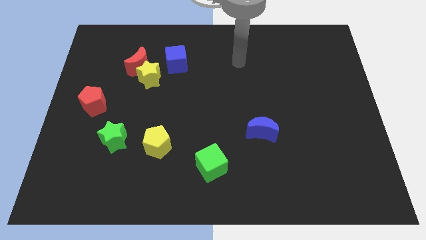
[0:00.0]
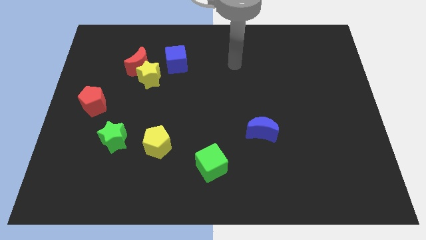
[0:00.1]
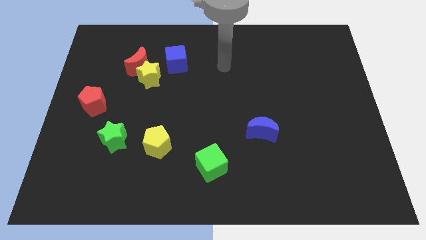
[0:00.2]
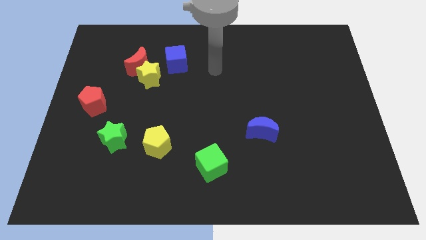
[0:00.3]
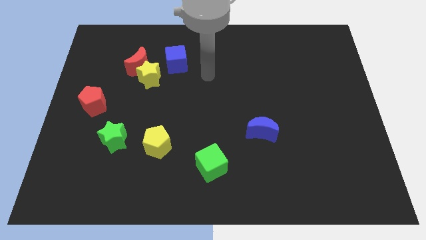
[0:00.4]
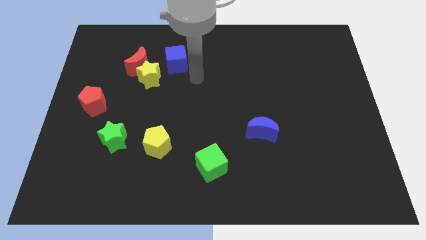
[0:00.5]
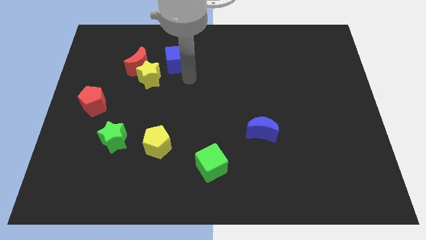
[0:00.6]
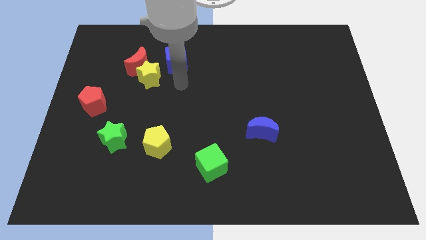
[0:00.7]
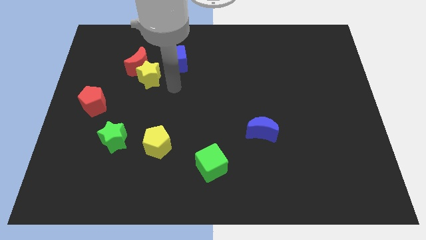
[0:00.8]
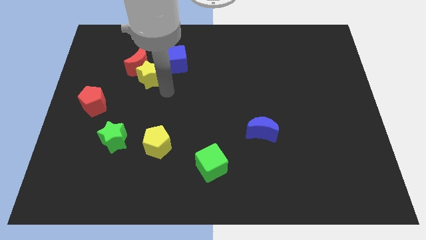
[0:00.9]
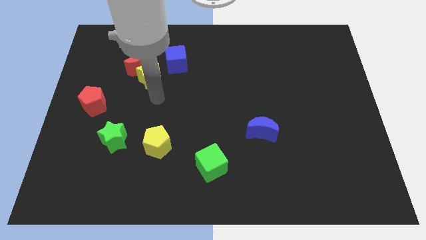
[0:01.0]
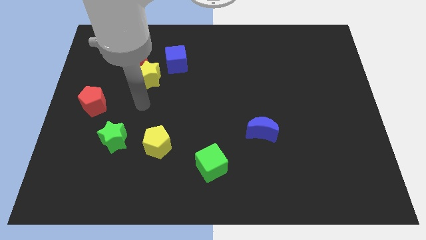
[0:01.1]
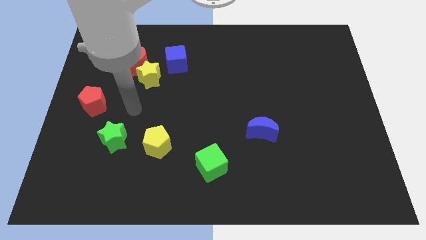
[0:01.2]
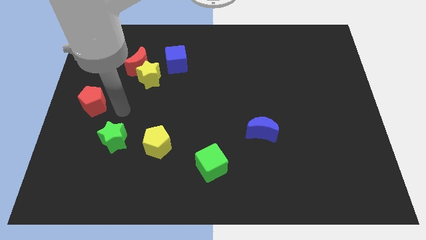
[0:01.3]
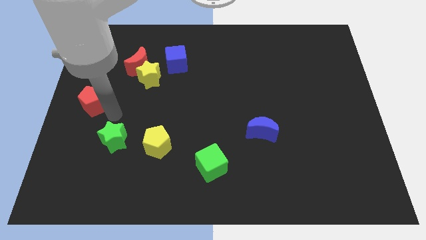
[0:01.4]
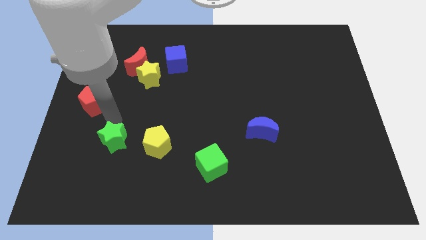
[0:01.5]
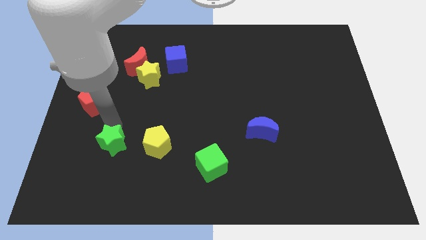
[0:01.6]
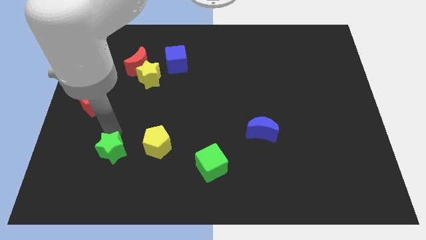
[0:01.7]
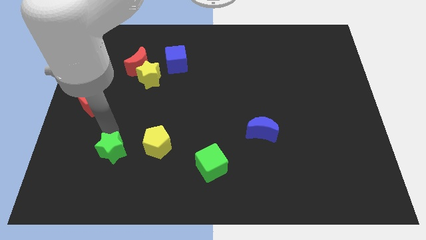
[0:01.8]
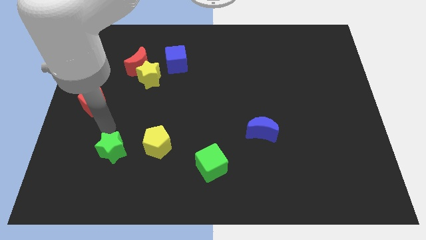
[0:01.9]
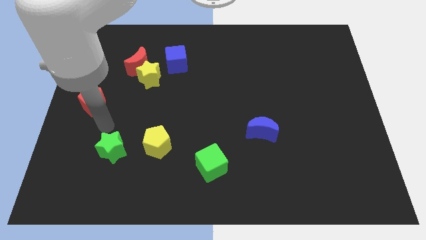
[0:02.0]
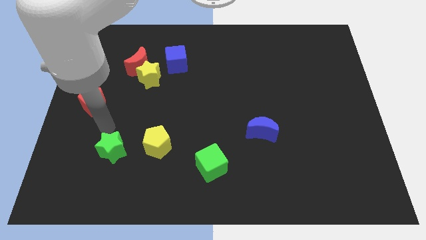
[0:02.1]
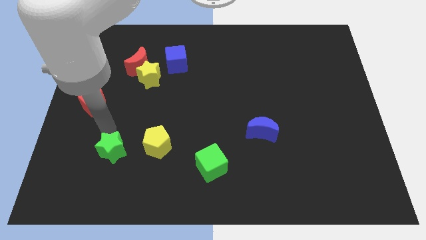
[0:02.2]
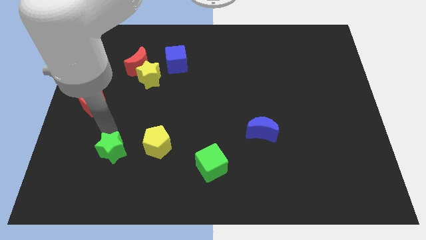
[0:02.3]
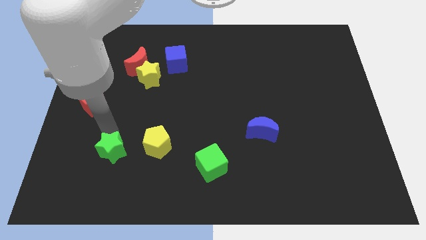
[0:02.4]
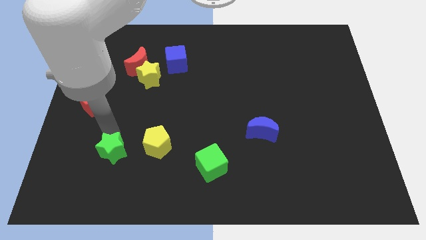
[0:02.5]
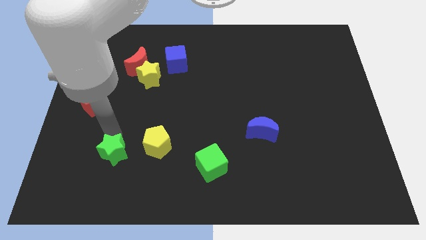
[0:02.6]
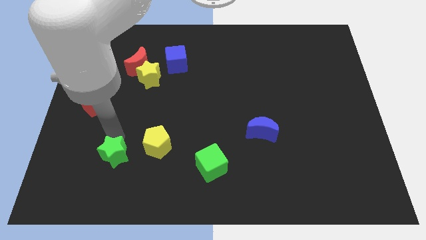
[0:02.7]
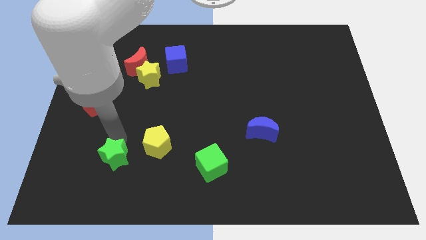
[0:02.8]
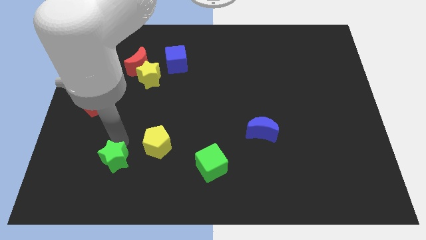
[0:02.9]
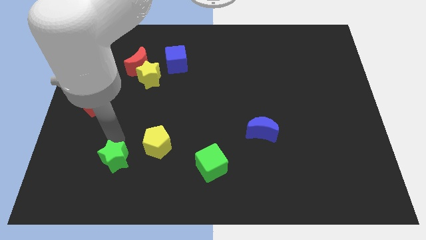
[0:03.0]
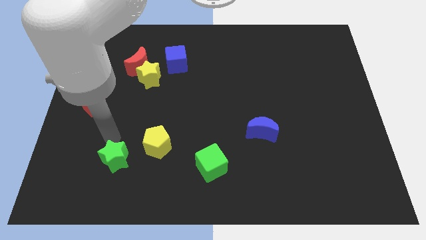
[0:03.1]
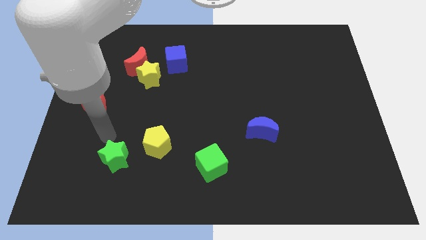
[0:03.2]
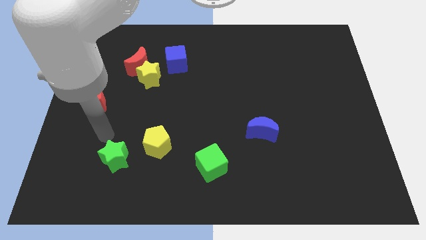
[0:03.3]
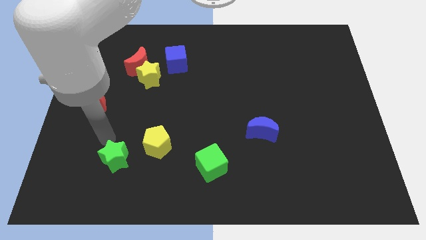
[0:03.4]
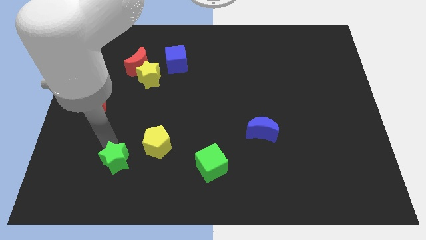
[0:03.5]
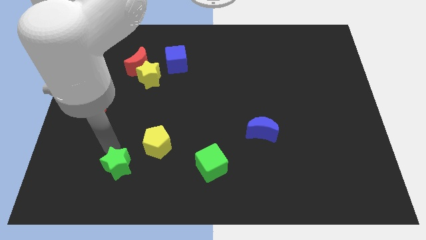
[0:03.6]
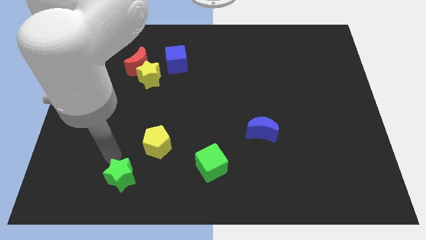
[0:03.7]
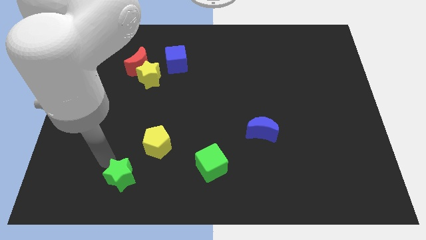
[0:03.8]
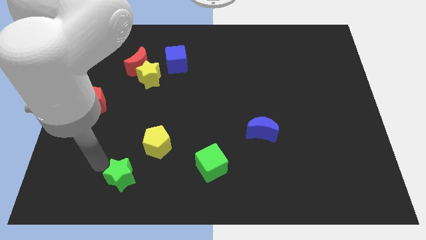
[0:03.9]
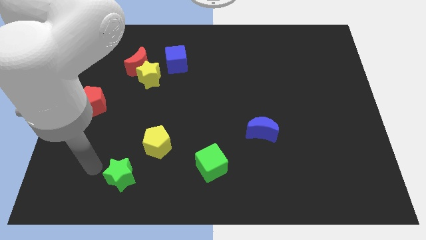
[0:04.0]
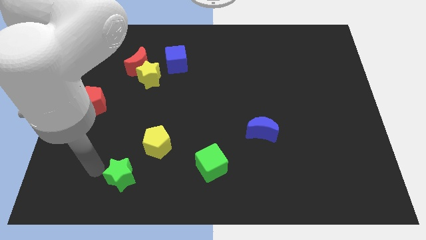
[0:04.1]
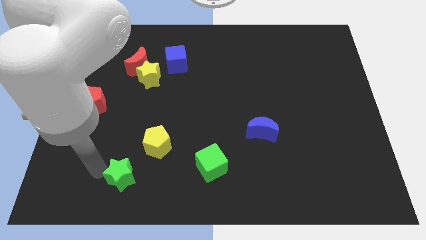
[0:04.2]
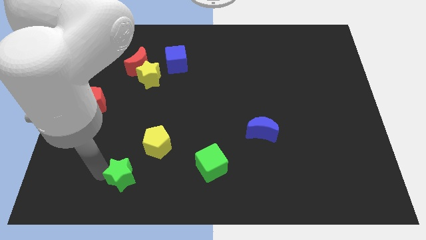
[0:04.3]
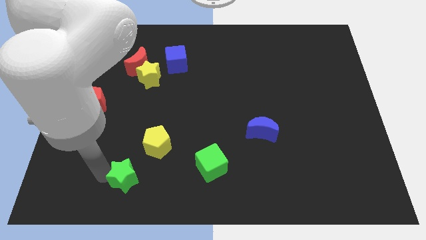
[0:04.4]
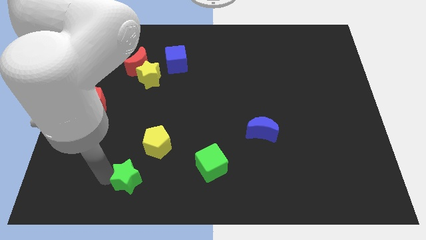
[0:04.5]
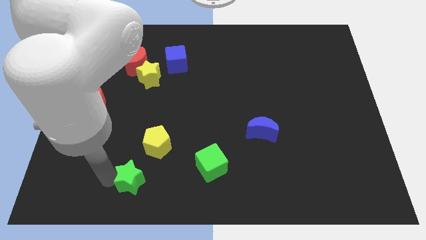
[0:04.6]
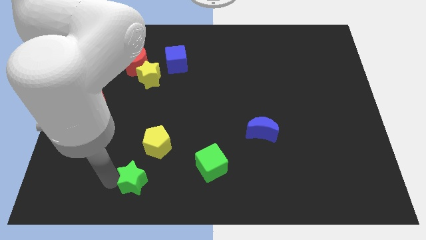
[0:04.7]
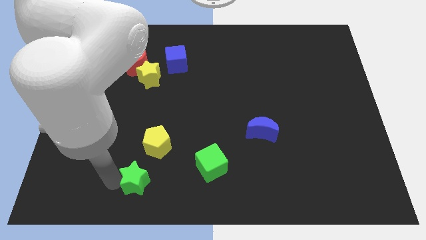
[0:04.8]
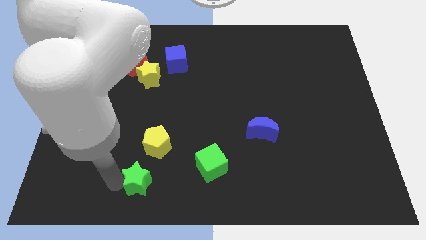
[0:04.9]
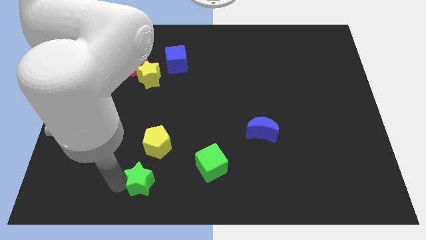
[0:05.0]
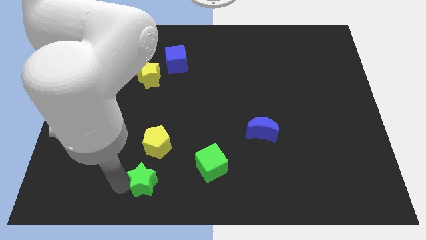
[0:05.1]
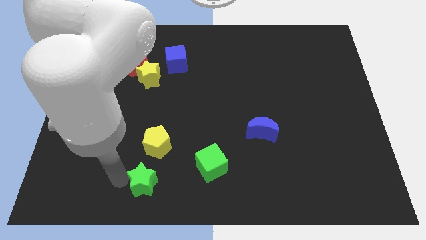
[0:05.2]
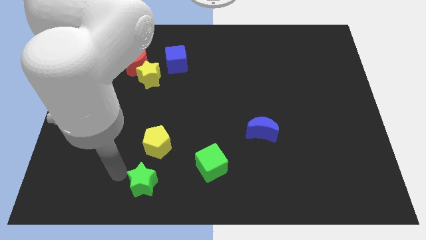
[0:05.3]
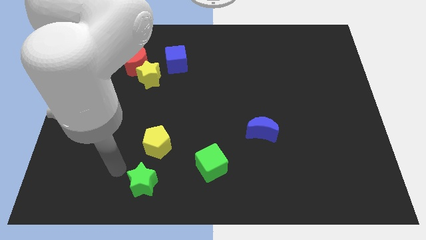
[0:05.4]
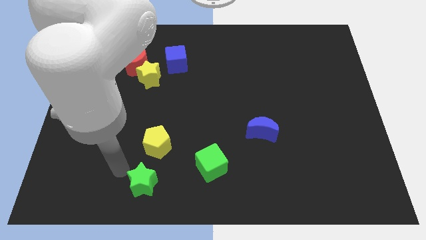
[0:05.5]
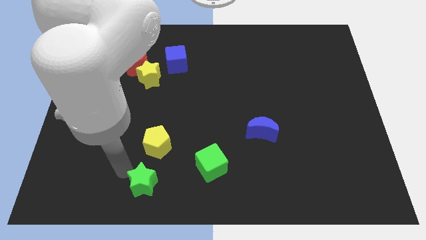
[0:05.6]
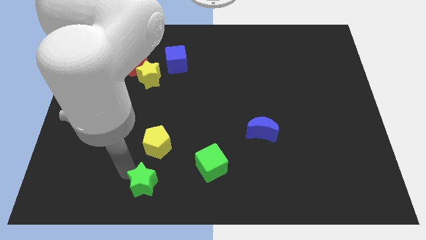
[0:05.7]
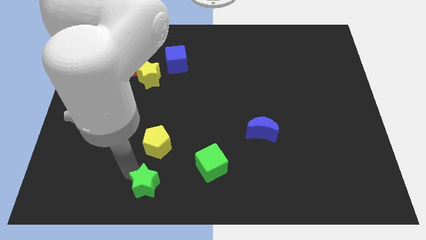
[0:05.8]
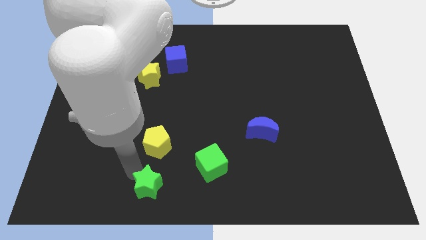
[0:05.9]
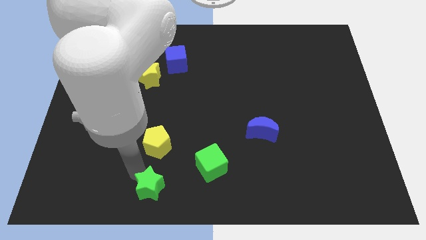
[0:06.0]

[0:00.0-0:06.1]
move the green star to the bottom side

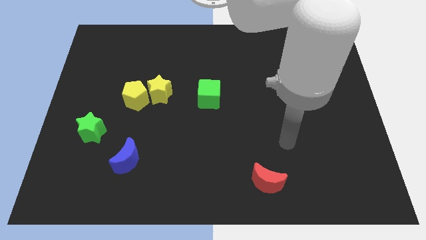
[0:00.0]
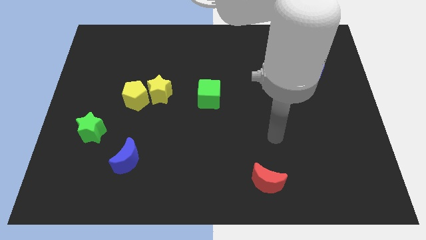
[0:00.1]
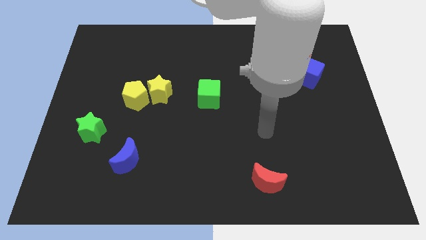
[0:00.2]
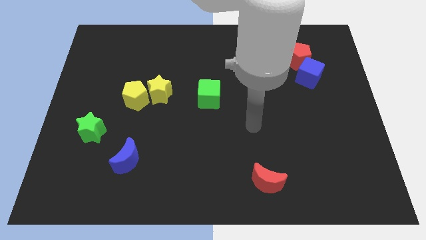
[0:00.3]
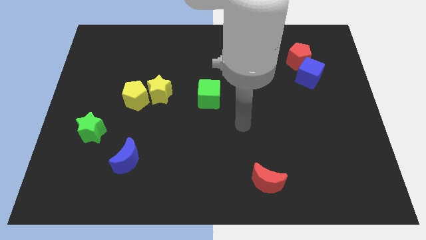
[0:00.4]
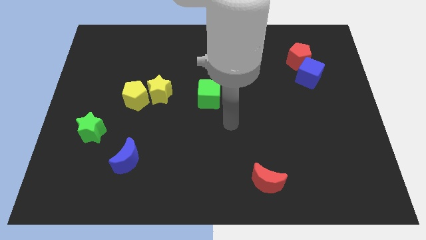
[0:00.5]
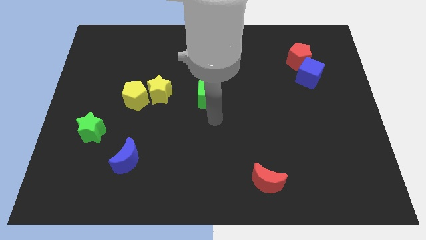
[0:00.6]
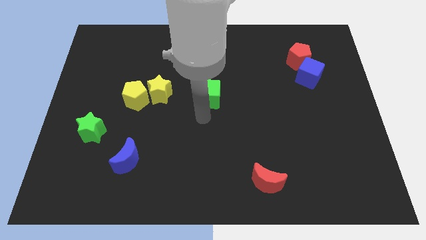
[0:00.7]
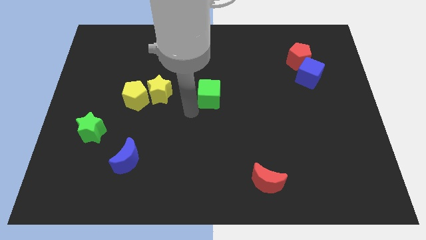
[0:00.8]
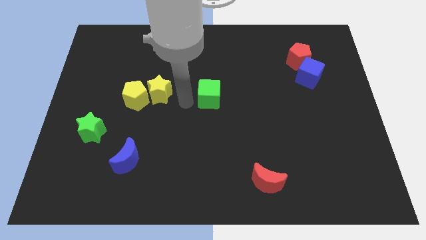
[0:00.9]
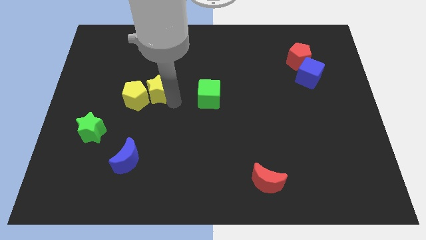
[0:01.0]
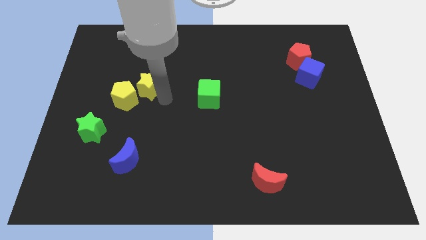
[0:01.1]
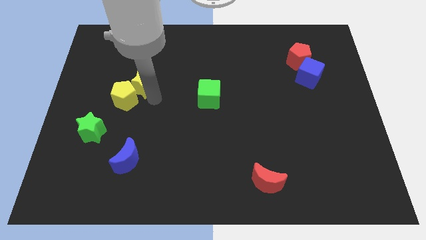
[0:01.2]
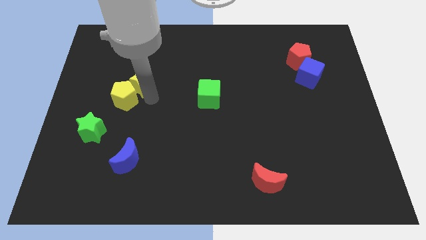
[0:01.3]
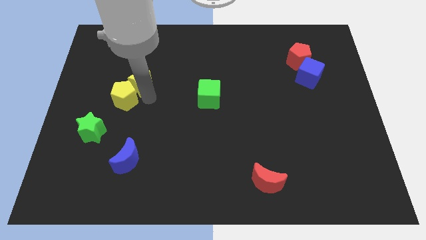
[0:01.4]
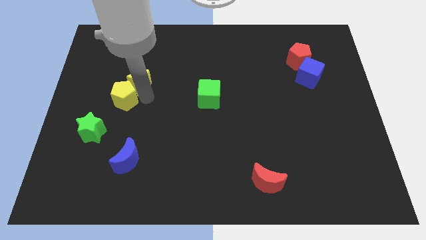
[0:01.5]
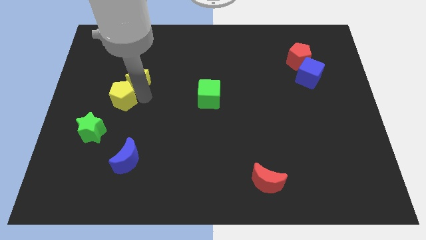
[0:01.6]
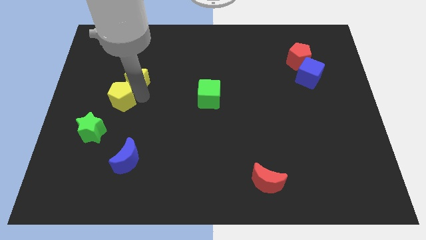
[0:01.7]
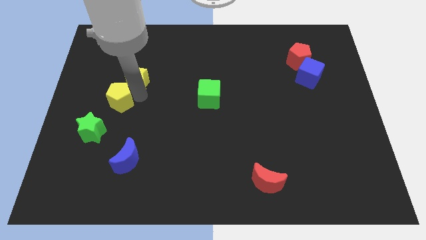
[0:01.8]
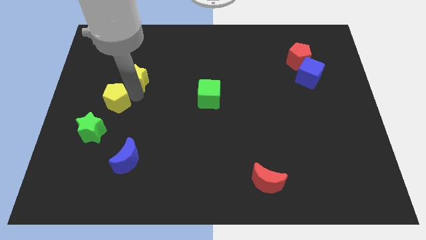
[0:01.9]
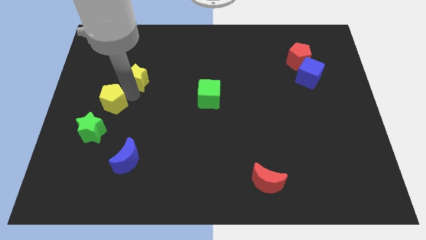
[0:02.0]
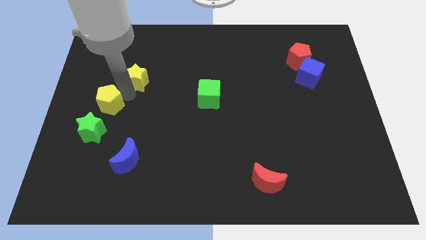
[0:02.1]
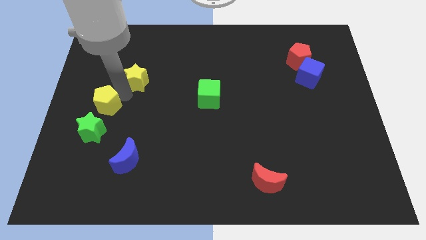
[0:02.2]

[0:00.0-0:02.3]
put the yellow pentagon to the left side
